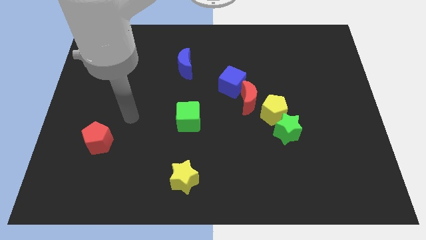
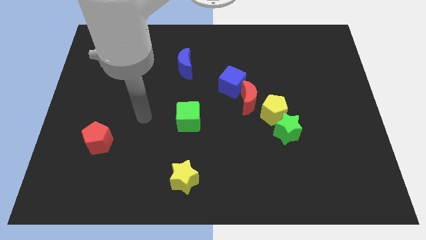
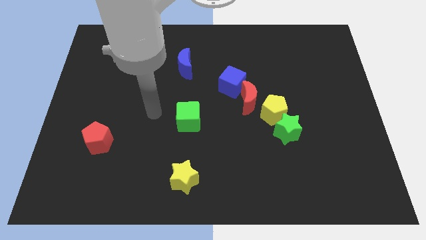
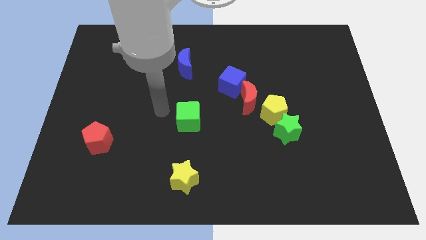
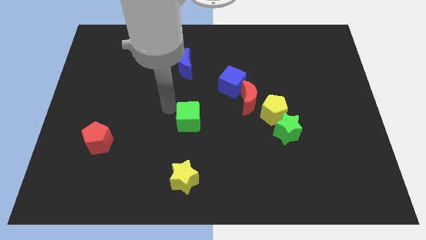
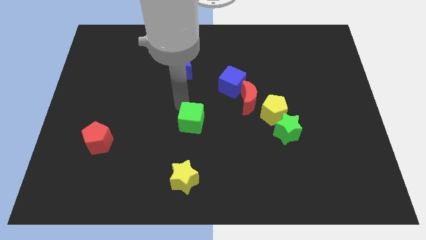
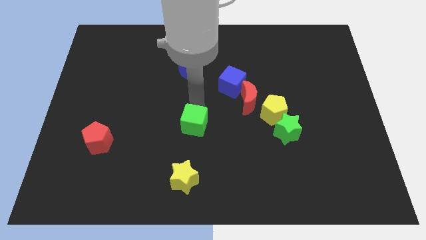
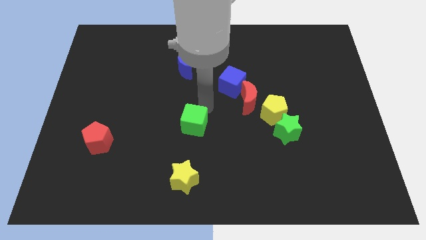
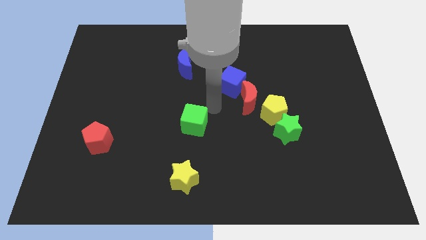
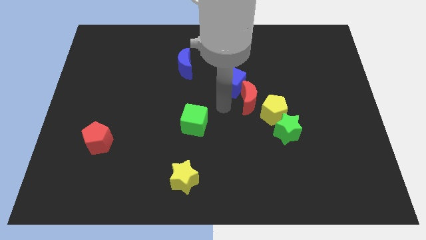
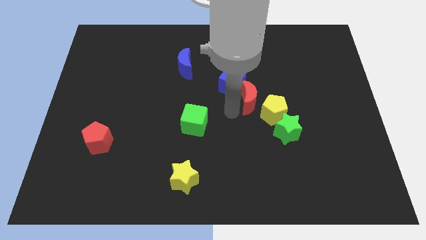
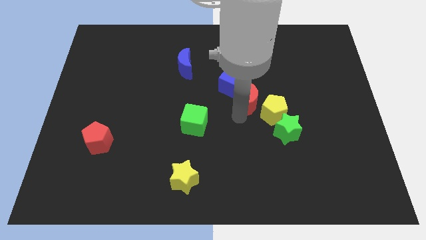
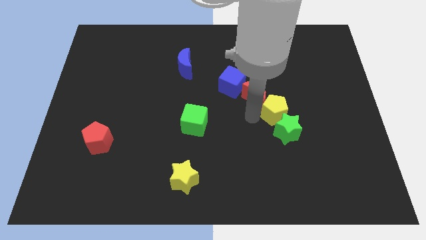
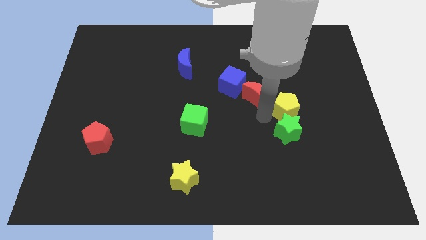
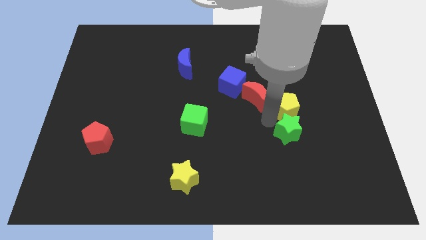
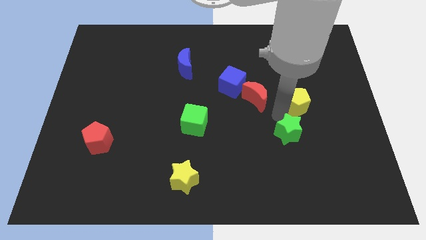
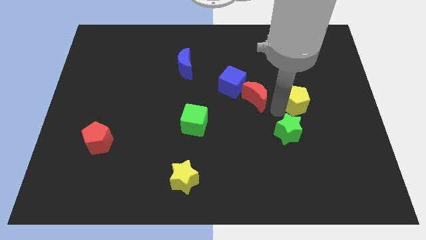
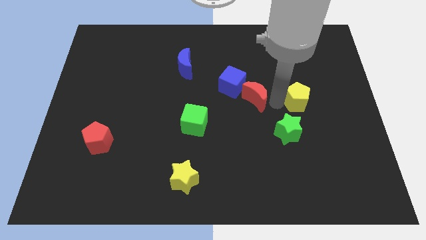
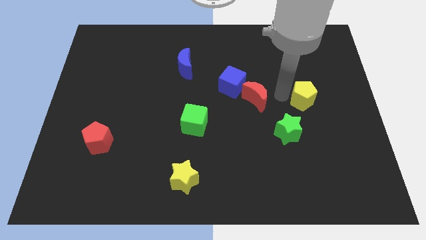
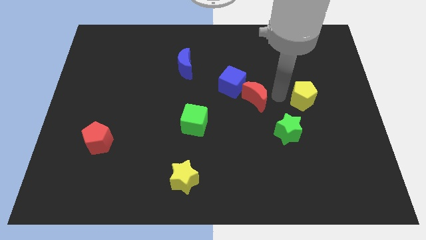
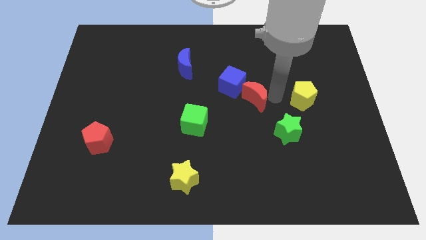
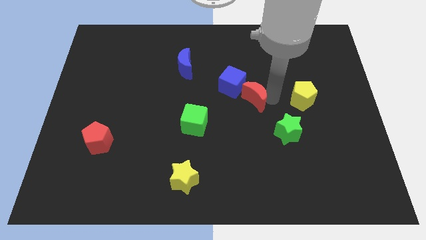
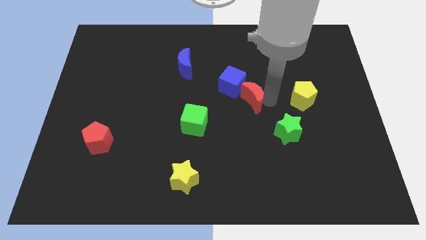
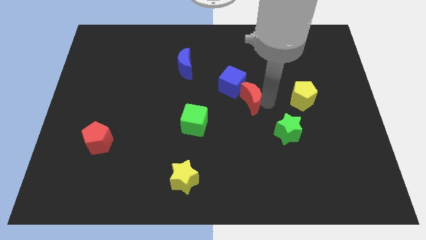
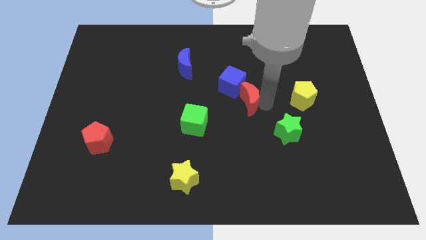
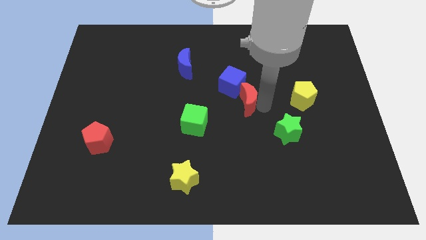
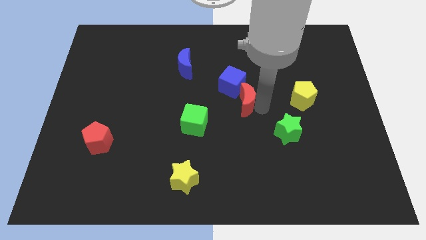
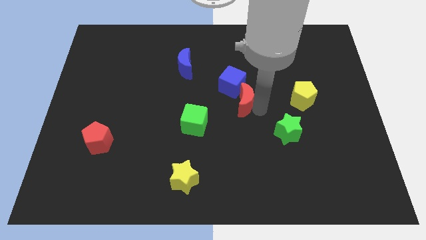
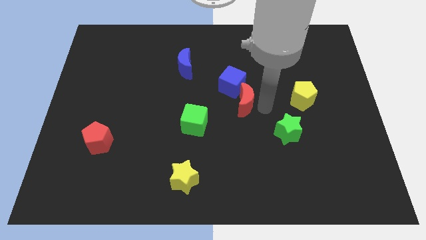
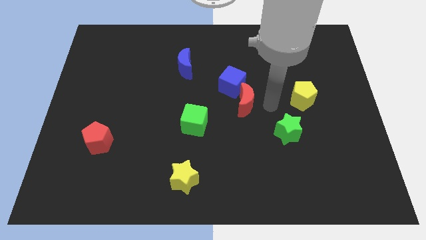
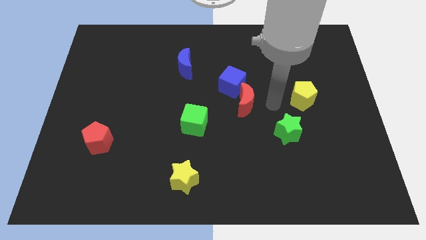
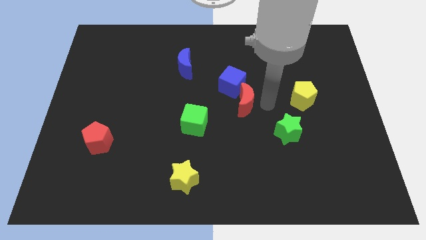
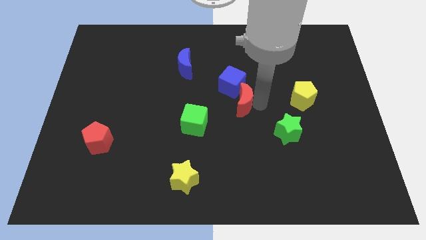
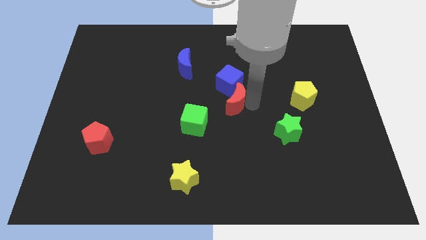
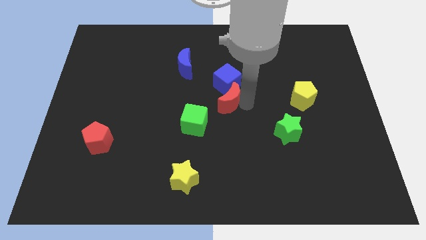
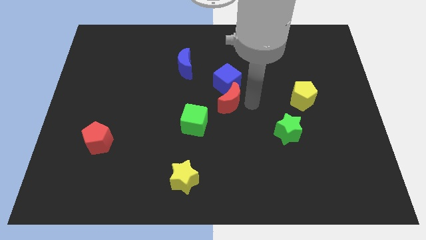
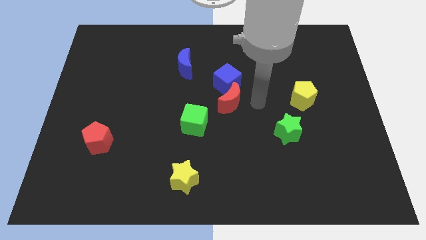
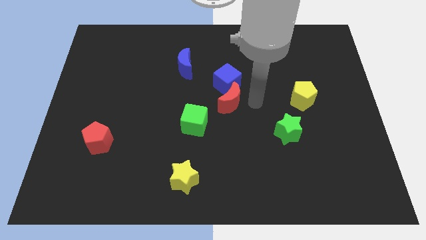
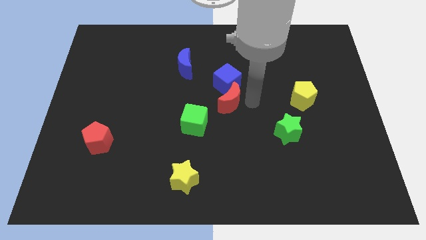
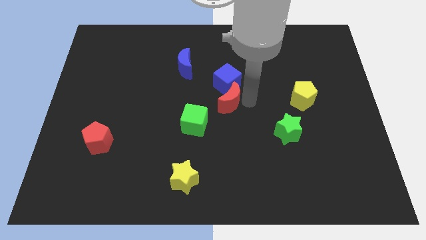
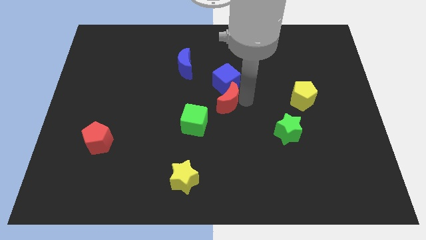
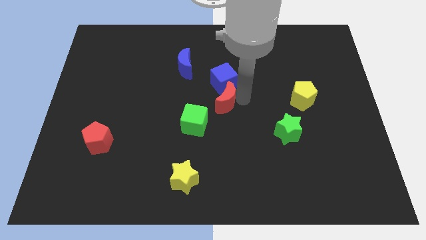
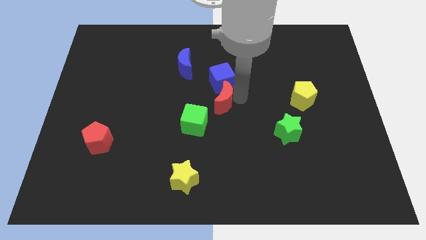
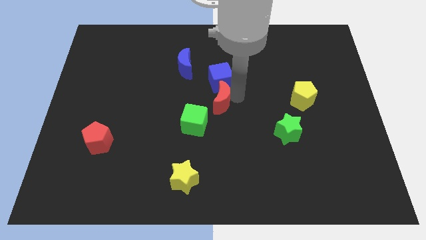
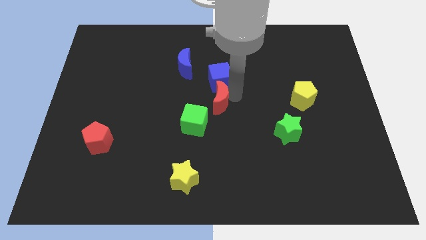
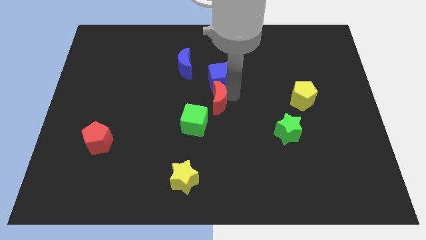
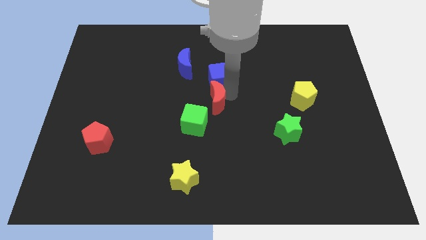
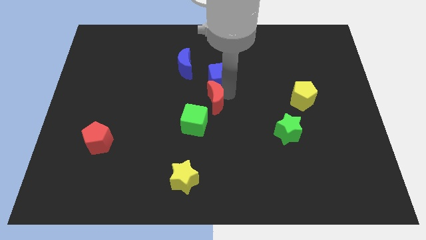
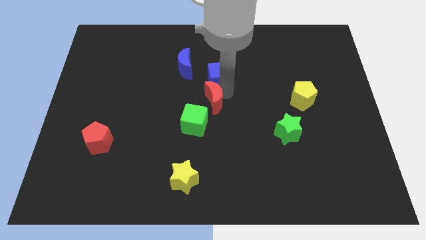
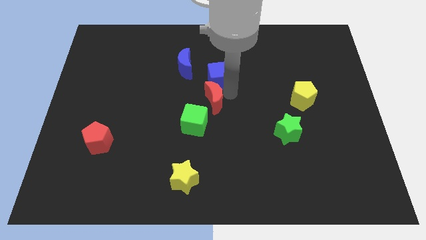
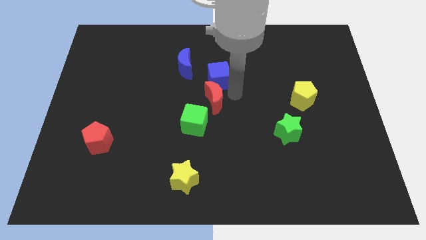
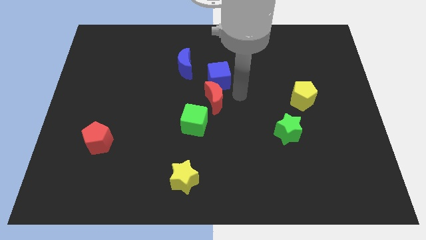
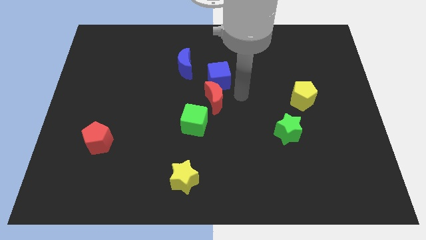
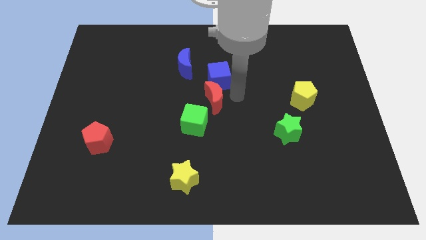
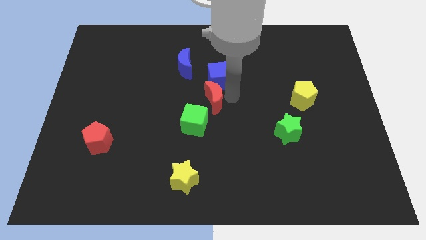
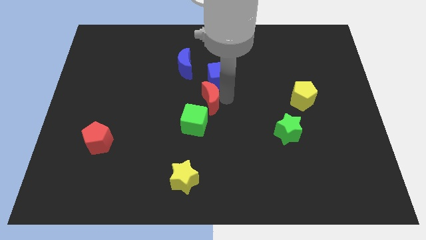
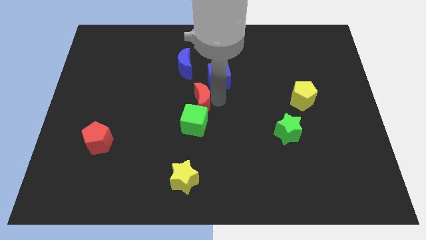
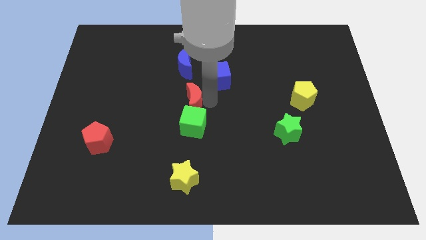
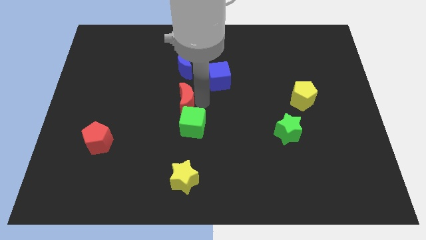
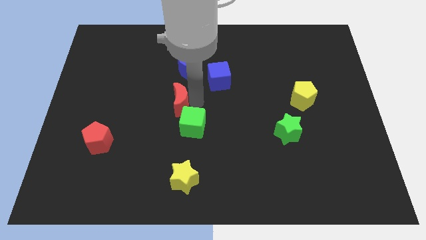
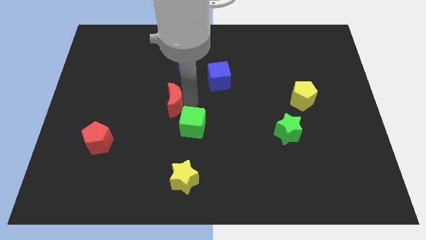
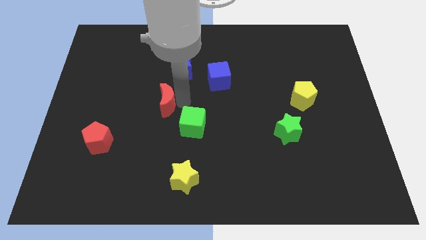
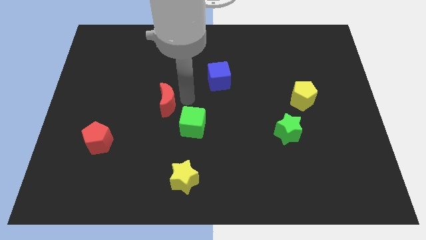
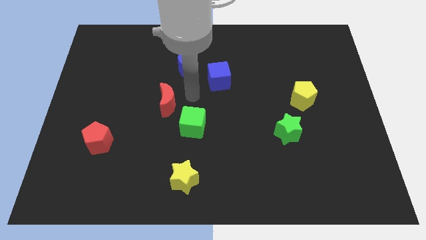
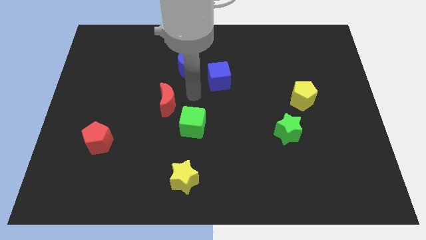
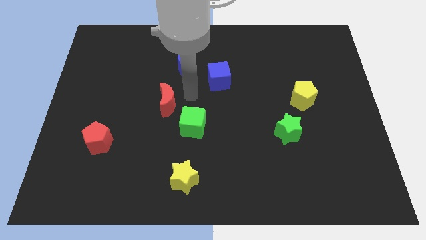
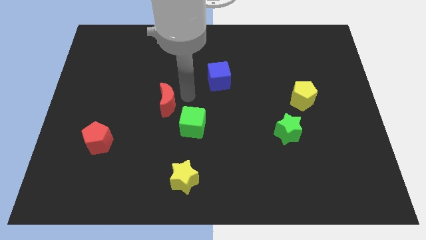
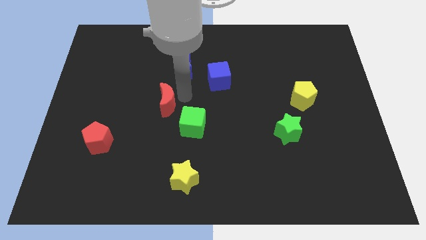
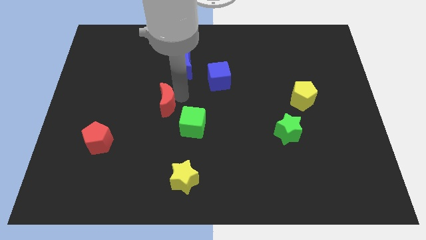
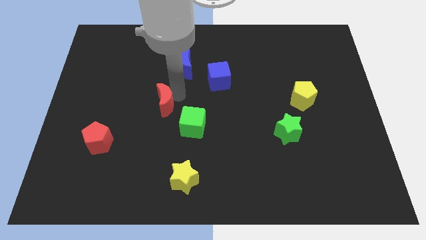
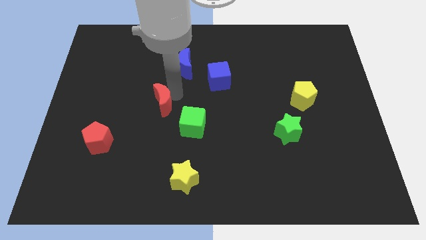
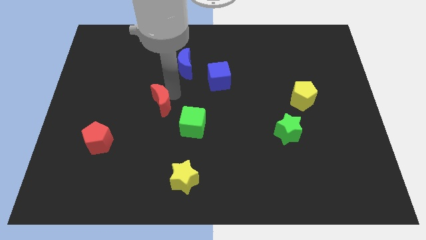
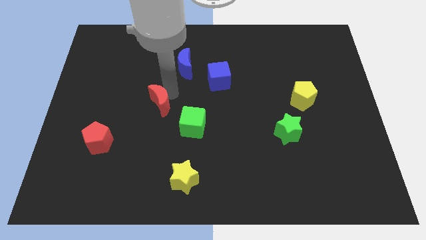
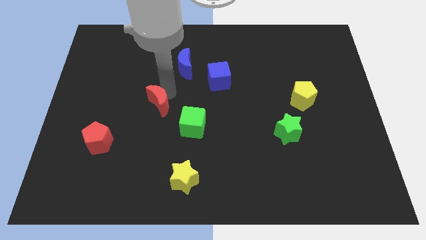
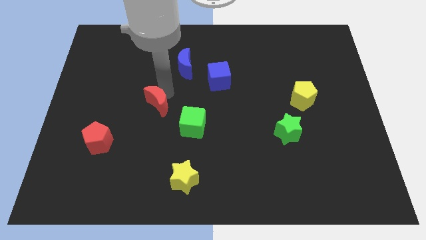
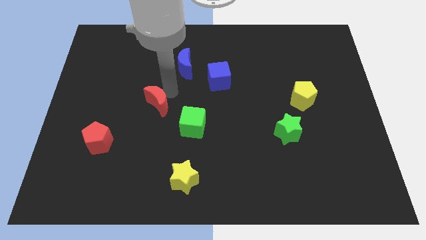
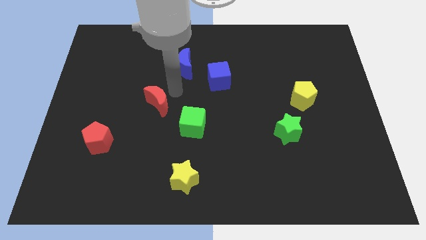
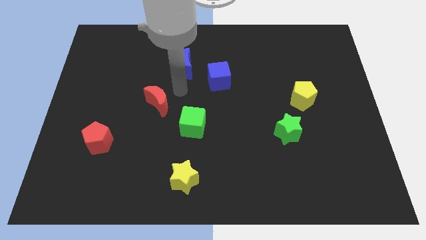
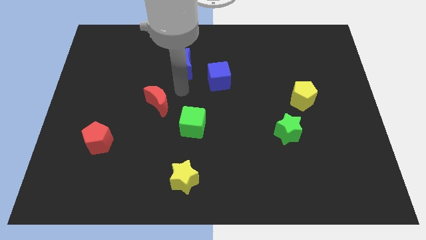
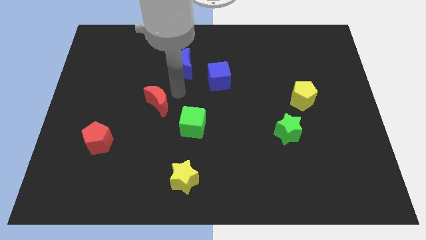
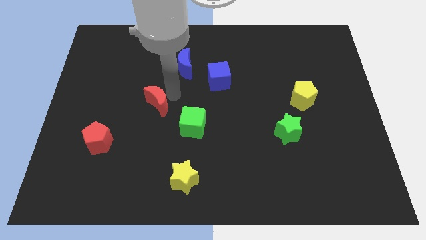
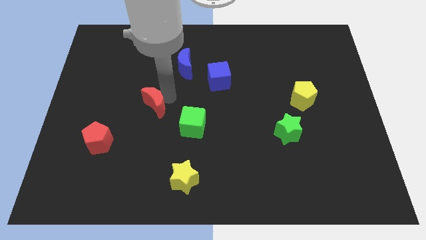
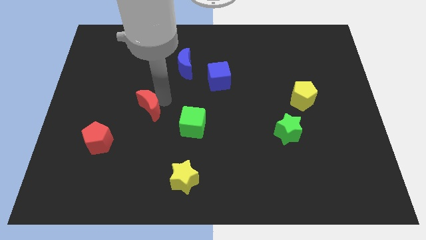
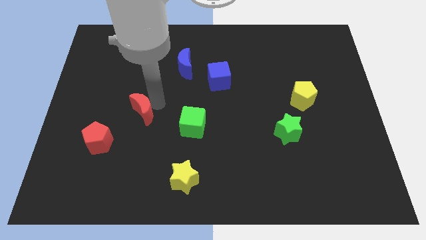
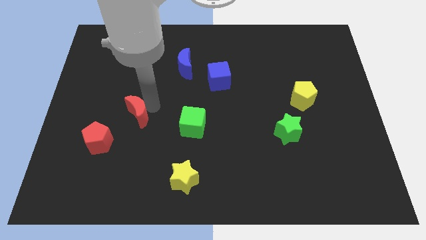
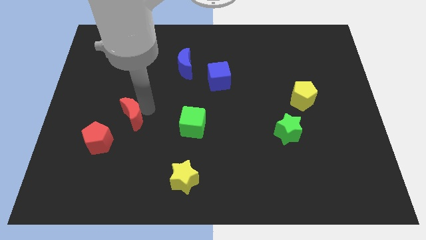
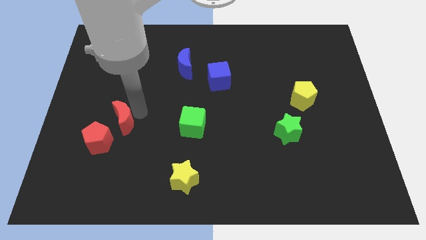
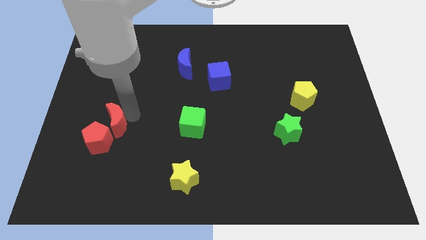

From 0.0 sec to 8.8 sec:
move the red moon close to the red pentagon
